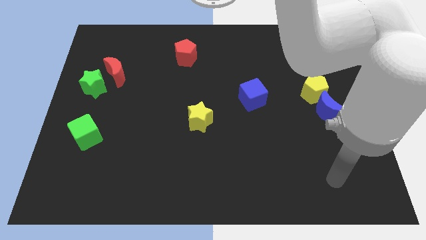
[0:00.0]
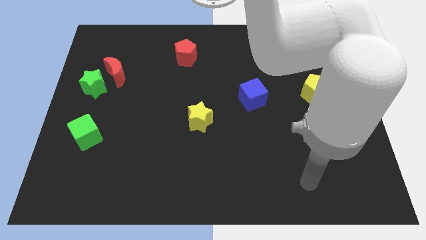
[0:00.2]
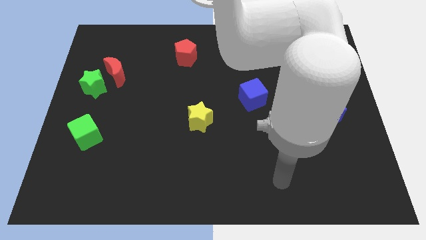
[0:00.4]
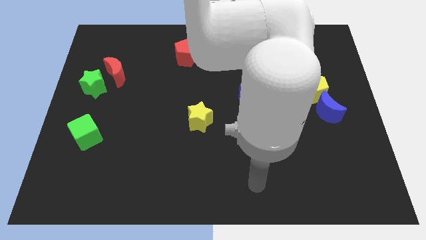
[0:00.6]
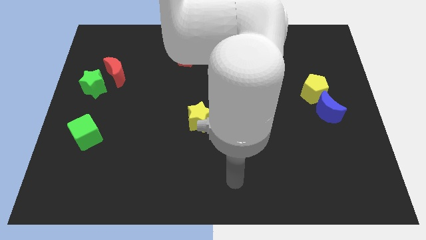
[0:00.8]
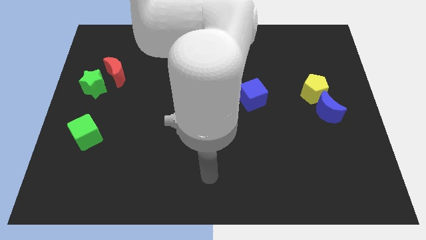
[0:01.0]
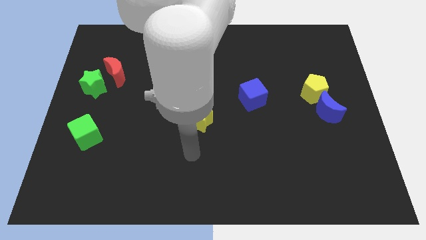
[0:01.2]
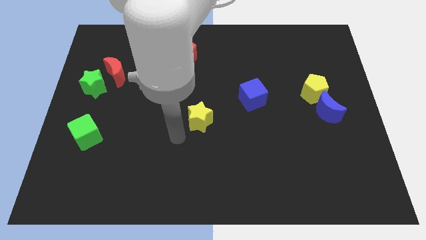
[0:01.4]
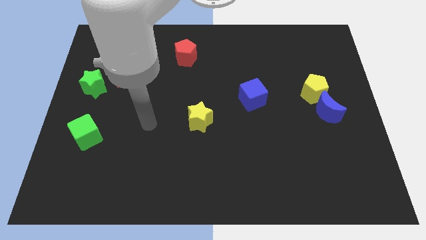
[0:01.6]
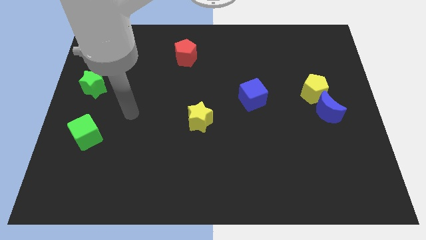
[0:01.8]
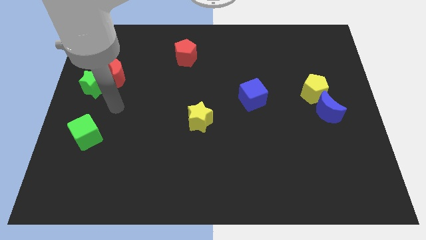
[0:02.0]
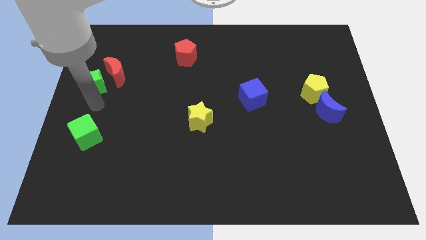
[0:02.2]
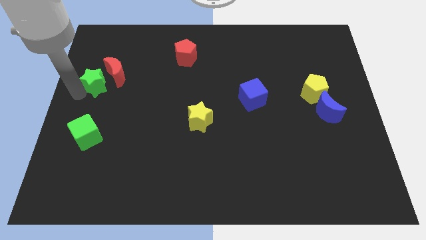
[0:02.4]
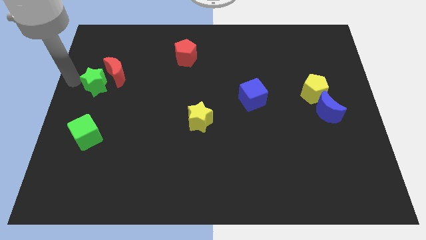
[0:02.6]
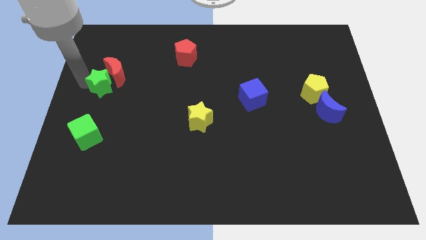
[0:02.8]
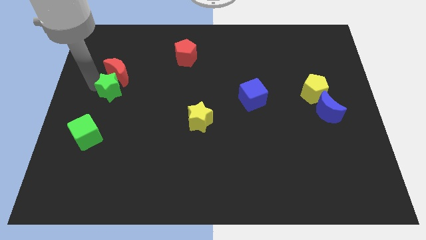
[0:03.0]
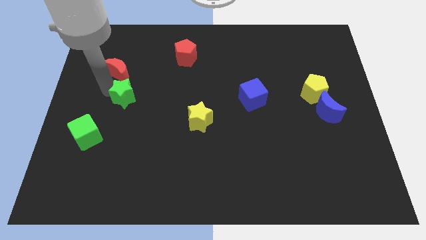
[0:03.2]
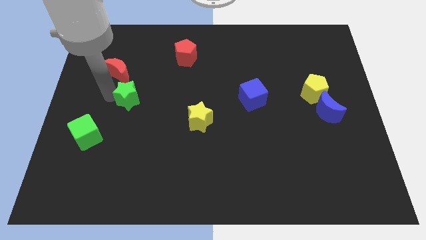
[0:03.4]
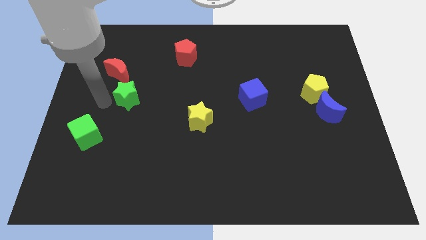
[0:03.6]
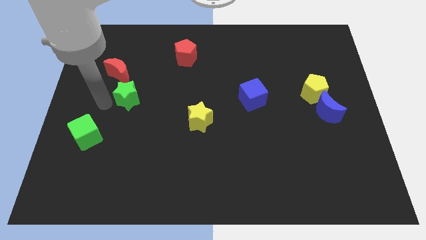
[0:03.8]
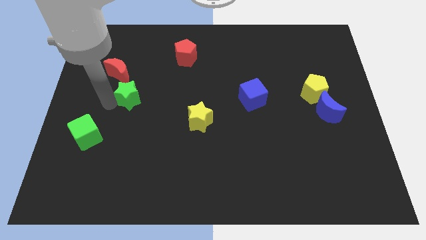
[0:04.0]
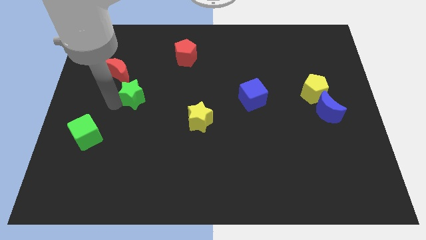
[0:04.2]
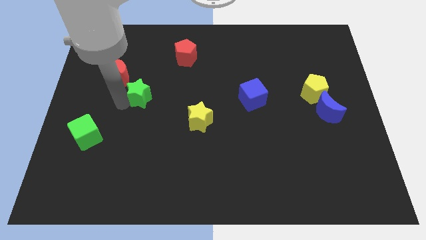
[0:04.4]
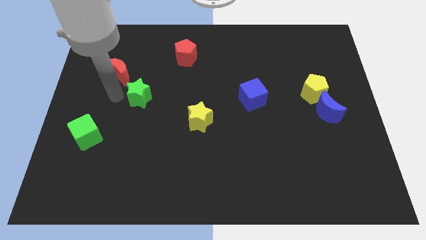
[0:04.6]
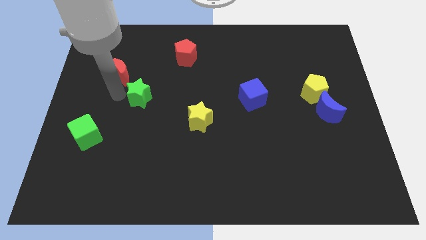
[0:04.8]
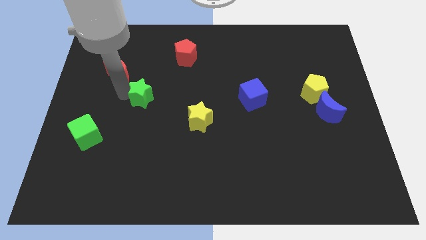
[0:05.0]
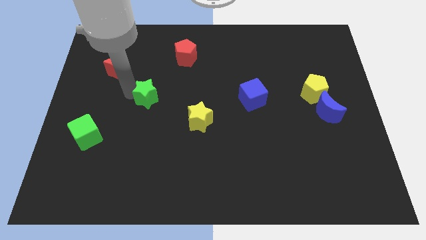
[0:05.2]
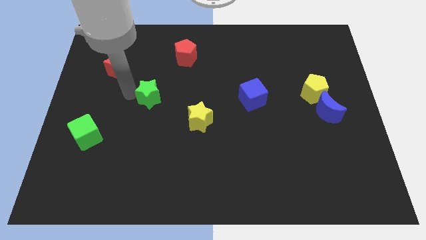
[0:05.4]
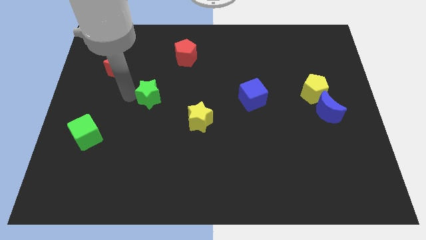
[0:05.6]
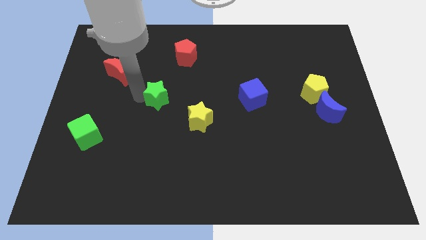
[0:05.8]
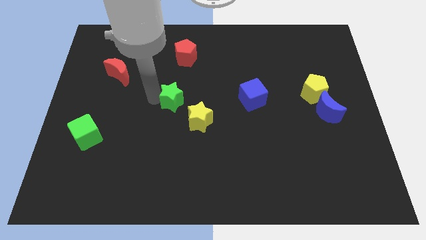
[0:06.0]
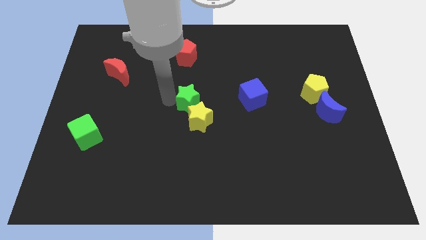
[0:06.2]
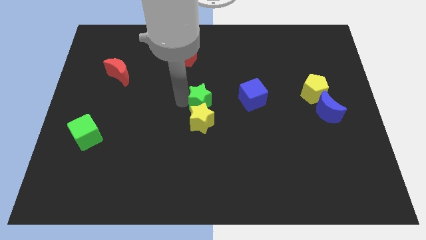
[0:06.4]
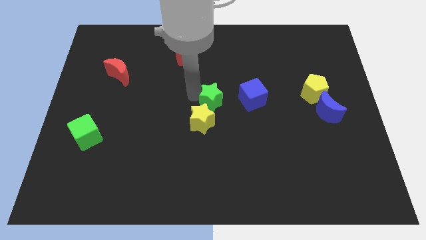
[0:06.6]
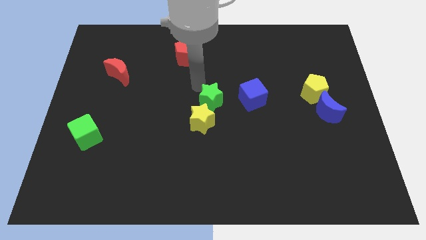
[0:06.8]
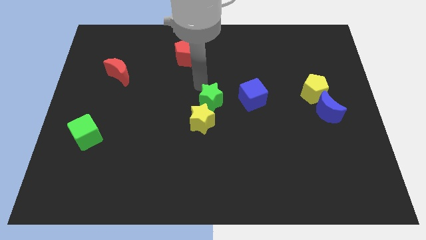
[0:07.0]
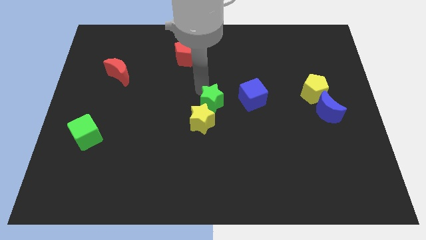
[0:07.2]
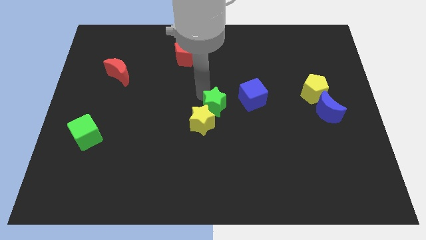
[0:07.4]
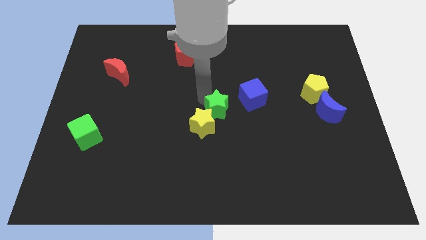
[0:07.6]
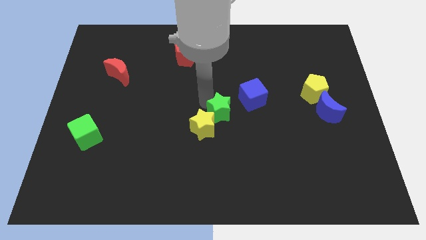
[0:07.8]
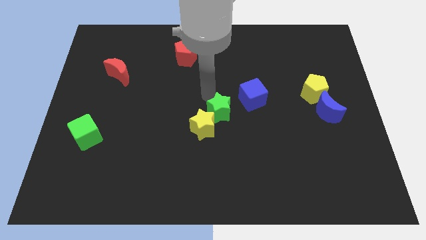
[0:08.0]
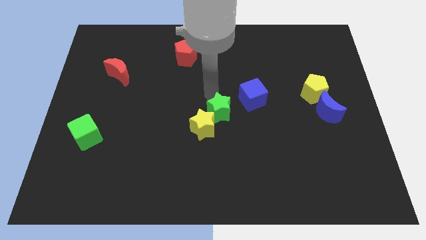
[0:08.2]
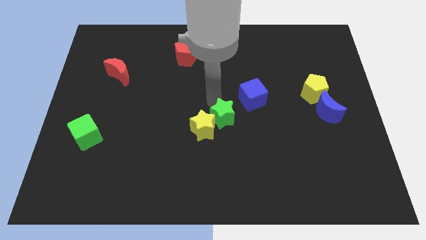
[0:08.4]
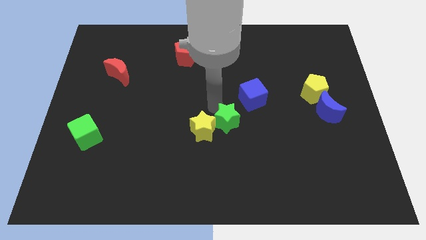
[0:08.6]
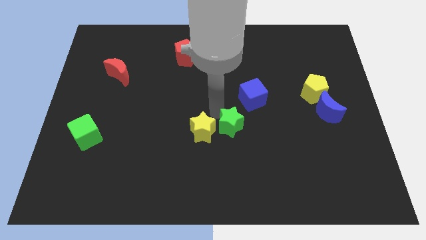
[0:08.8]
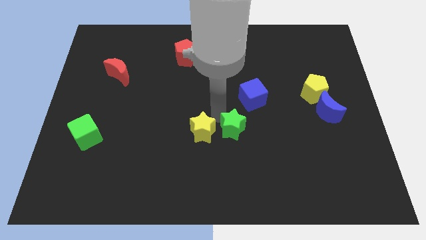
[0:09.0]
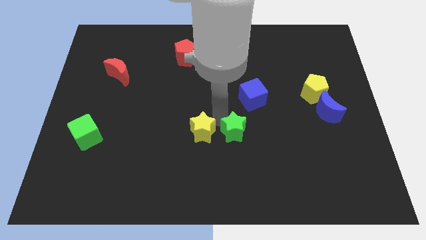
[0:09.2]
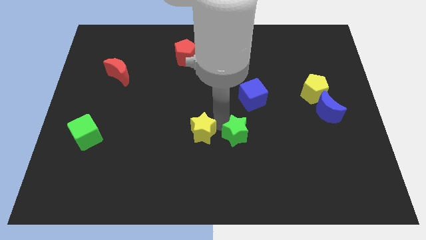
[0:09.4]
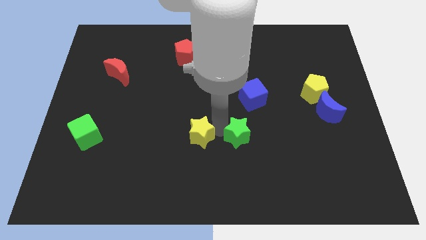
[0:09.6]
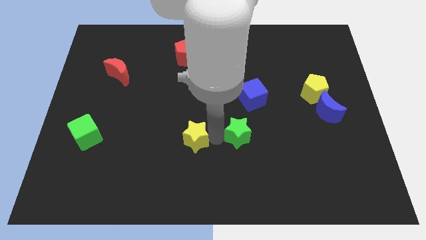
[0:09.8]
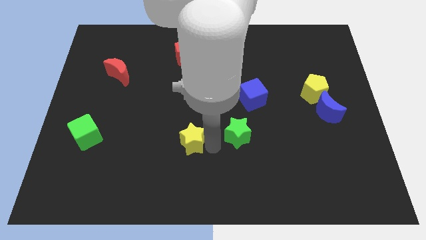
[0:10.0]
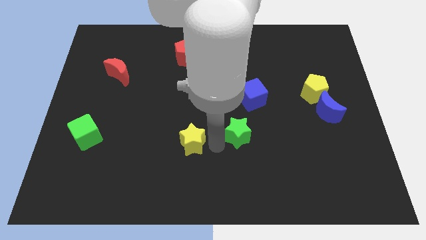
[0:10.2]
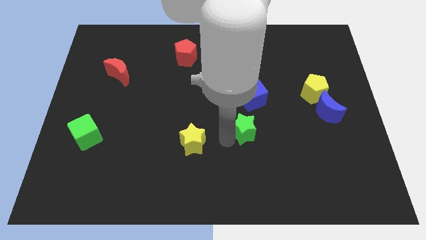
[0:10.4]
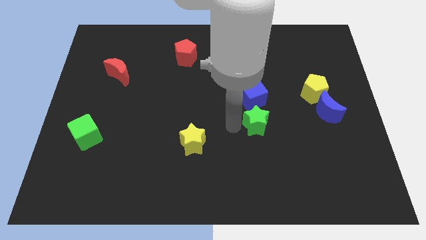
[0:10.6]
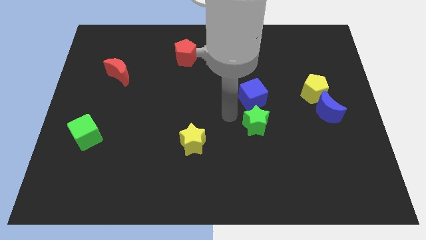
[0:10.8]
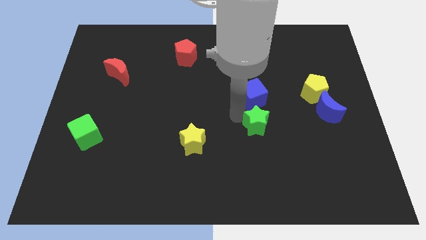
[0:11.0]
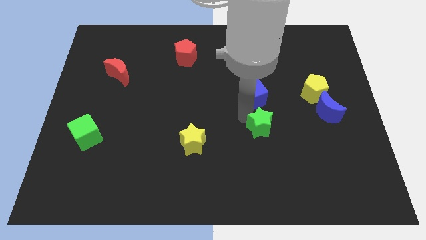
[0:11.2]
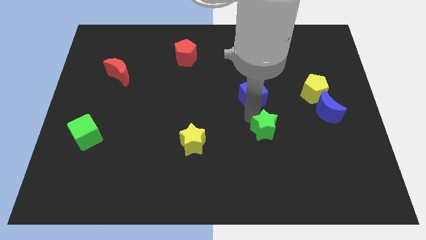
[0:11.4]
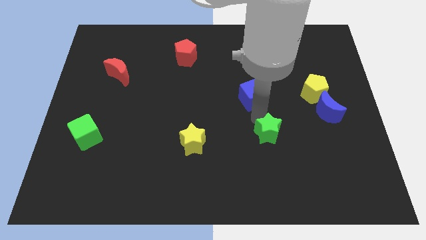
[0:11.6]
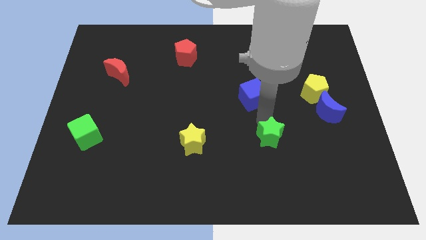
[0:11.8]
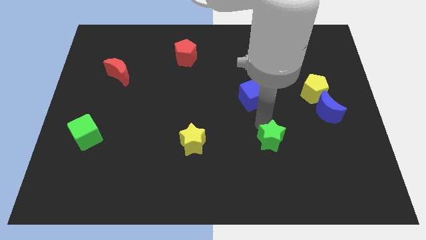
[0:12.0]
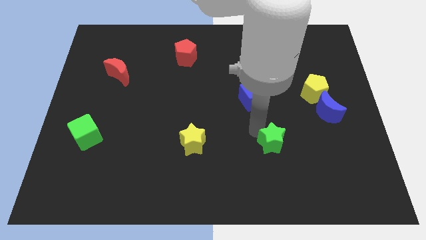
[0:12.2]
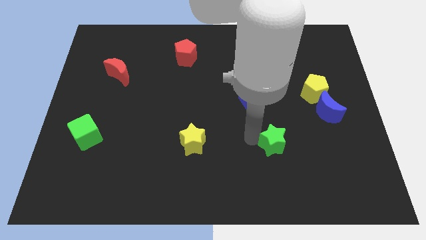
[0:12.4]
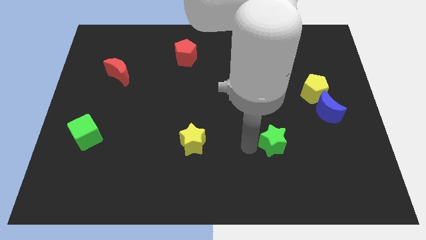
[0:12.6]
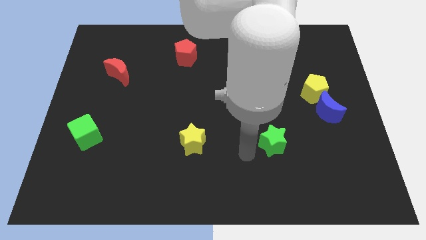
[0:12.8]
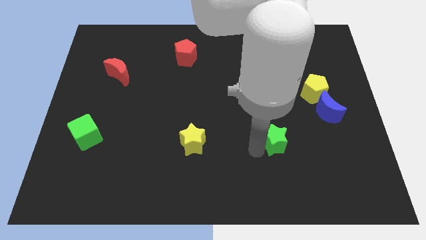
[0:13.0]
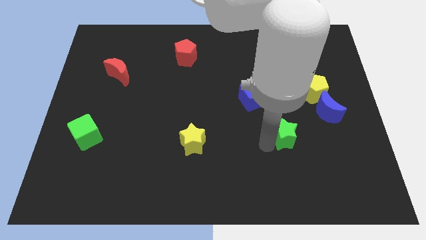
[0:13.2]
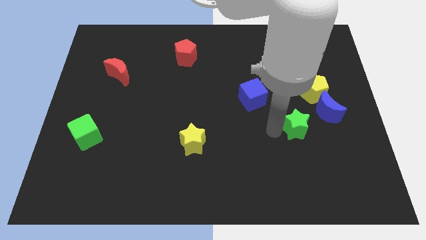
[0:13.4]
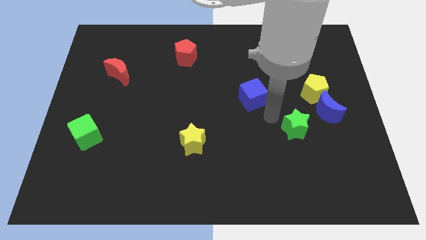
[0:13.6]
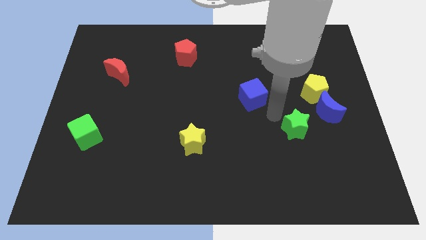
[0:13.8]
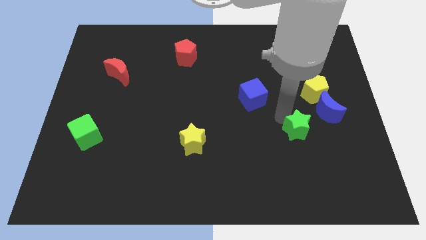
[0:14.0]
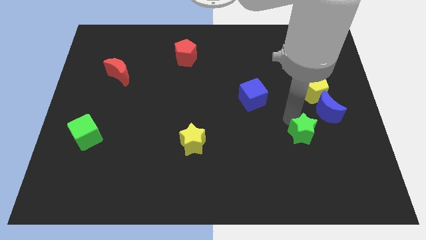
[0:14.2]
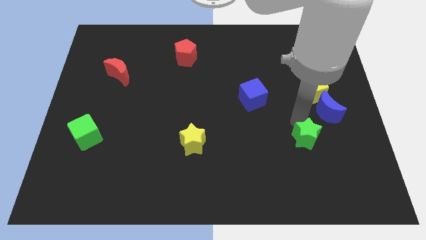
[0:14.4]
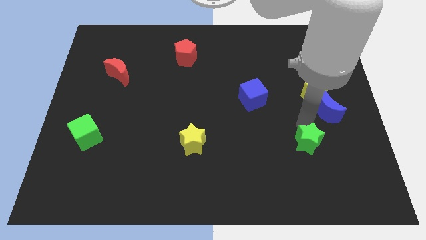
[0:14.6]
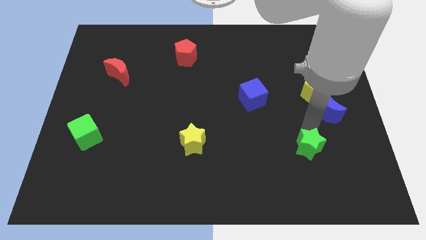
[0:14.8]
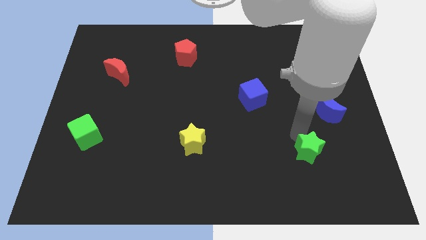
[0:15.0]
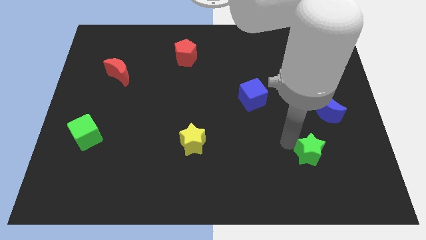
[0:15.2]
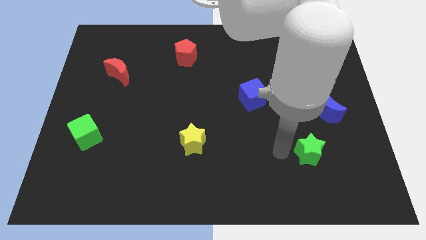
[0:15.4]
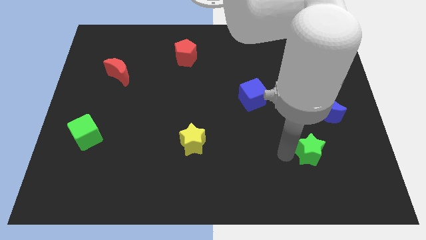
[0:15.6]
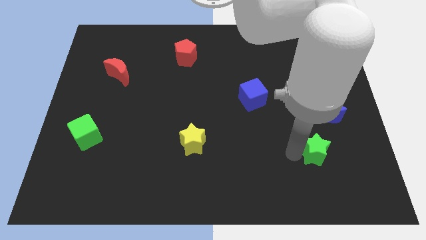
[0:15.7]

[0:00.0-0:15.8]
push the green star to the bottom side of the blue moon
